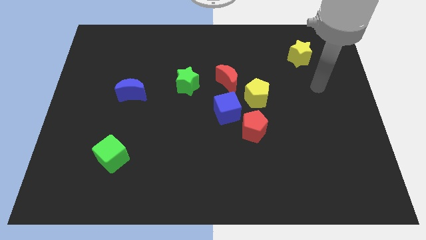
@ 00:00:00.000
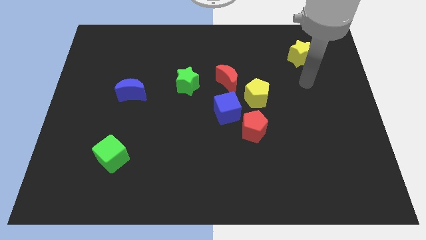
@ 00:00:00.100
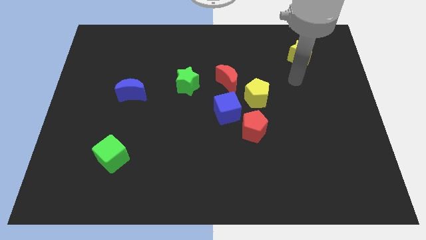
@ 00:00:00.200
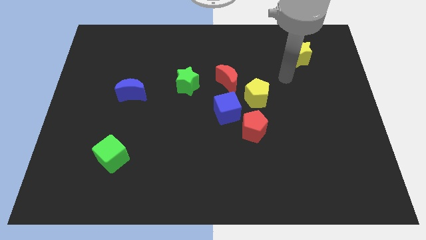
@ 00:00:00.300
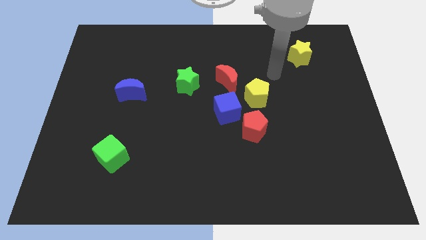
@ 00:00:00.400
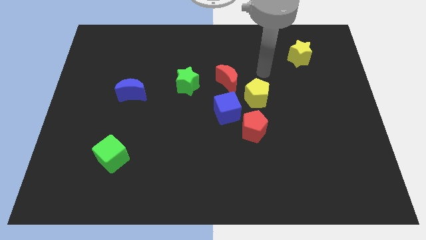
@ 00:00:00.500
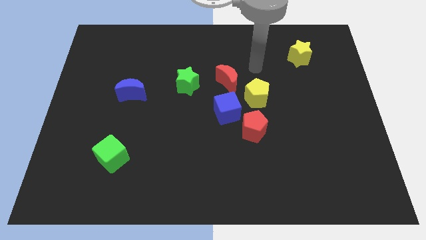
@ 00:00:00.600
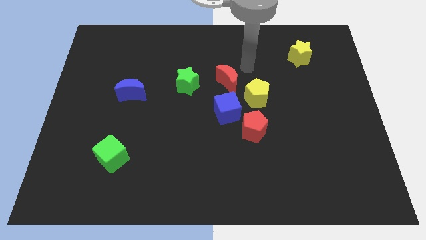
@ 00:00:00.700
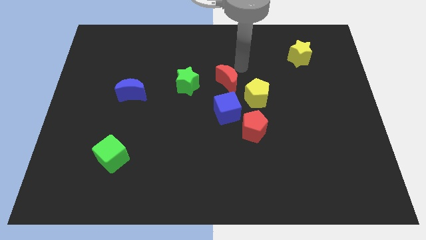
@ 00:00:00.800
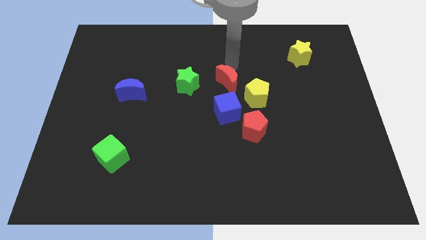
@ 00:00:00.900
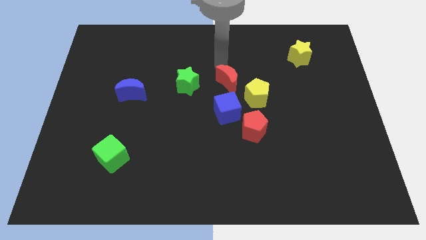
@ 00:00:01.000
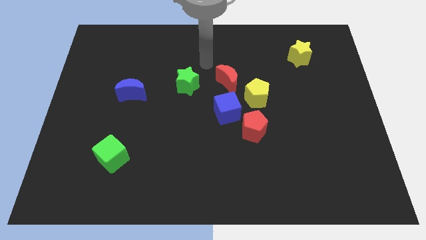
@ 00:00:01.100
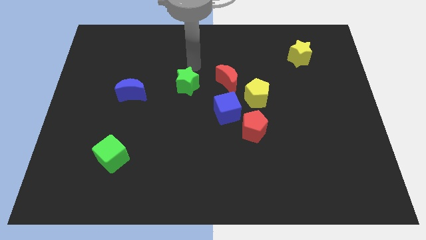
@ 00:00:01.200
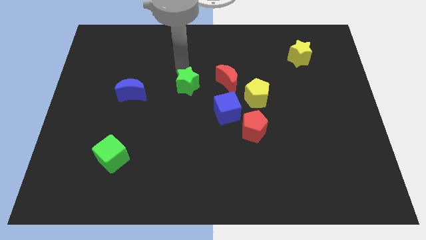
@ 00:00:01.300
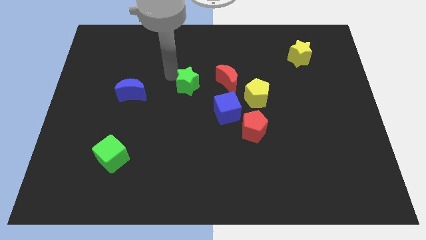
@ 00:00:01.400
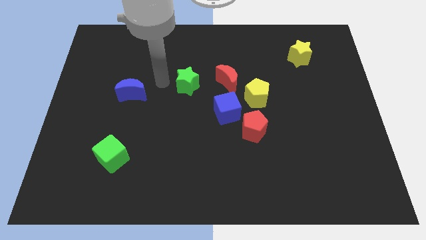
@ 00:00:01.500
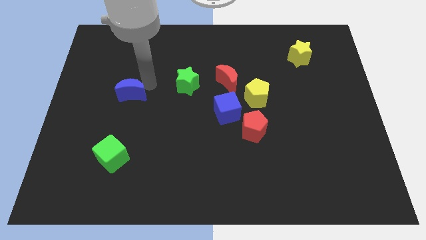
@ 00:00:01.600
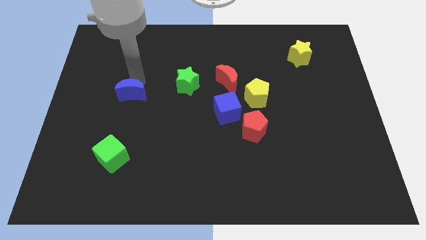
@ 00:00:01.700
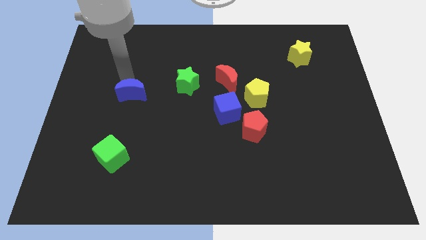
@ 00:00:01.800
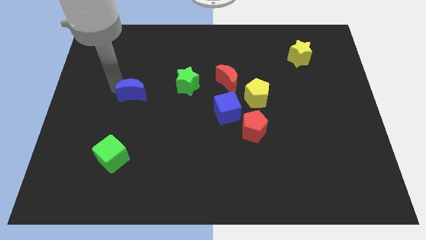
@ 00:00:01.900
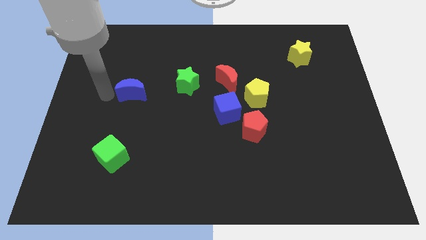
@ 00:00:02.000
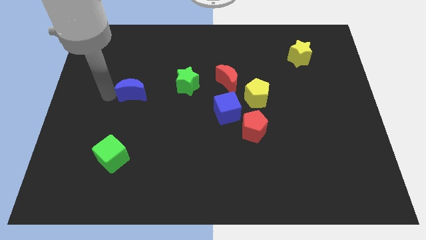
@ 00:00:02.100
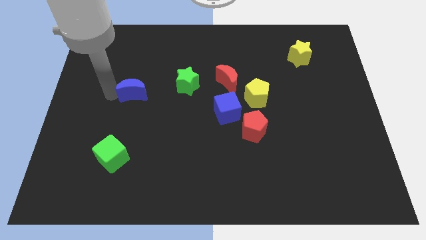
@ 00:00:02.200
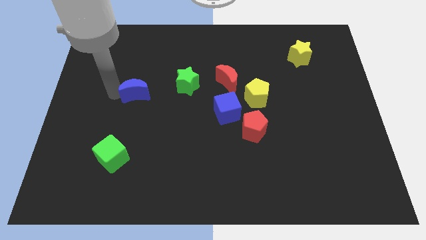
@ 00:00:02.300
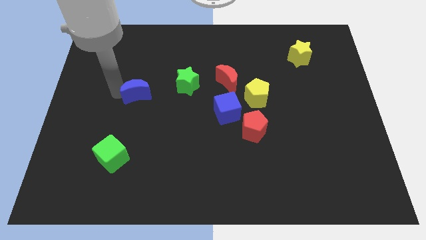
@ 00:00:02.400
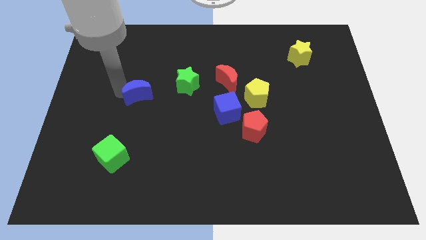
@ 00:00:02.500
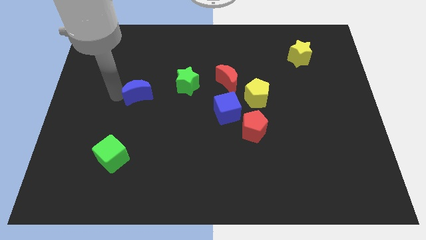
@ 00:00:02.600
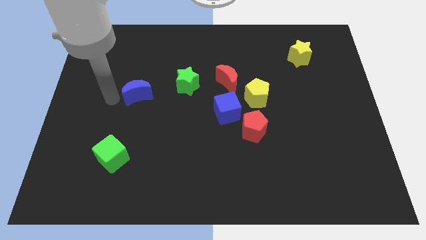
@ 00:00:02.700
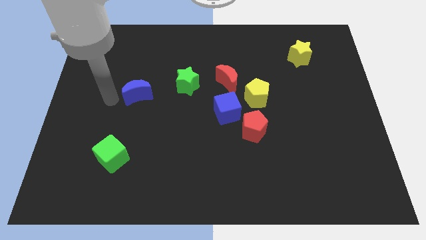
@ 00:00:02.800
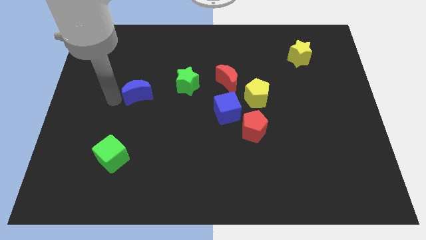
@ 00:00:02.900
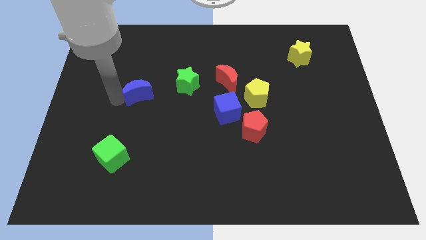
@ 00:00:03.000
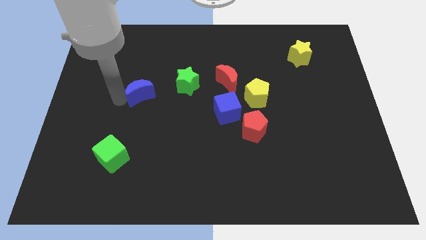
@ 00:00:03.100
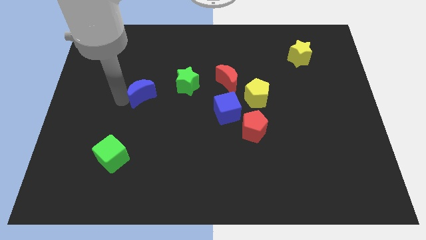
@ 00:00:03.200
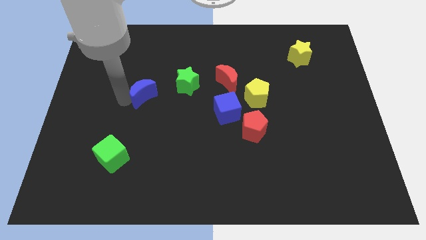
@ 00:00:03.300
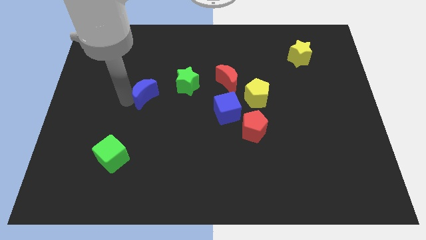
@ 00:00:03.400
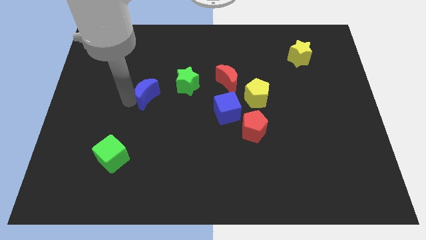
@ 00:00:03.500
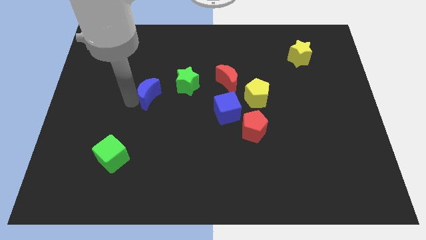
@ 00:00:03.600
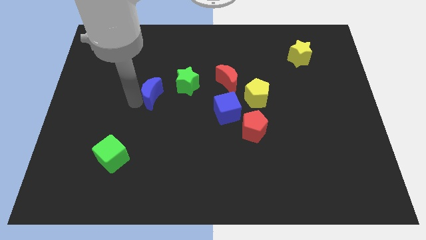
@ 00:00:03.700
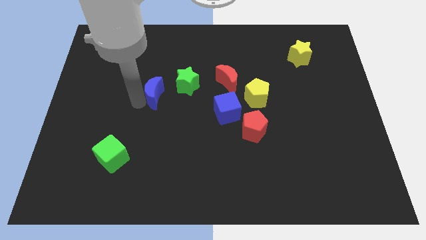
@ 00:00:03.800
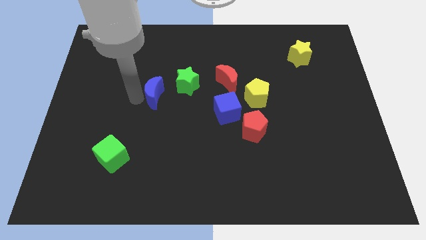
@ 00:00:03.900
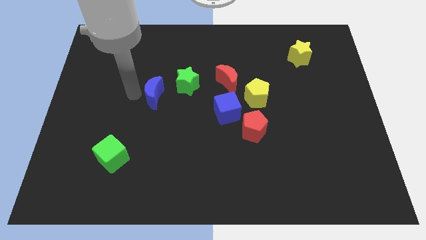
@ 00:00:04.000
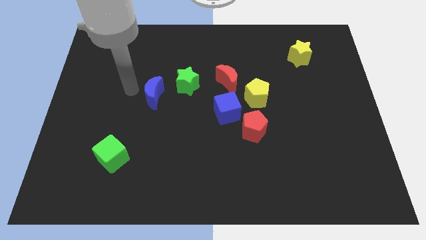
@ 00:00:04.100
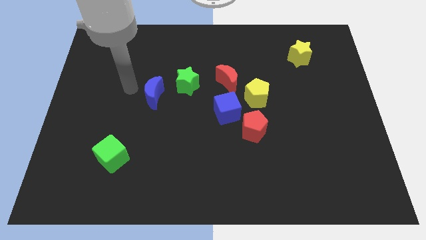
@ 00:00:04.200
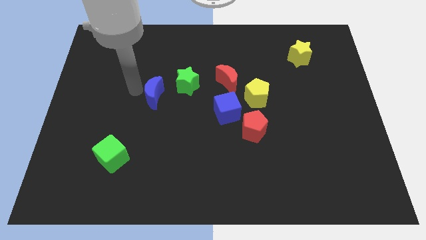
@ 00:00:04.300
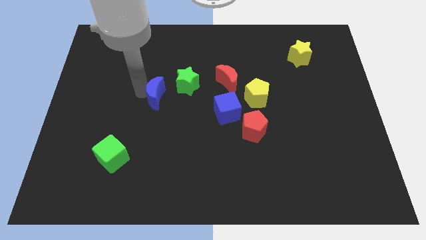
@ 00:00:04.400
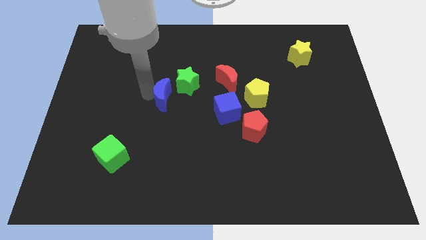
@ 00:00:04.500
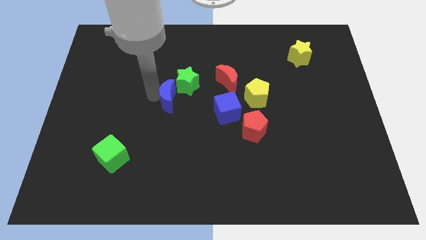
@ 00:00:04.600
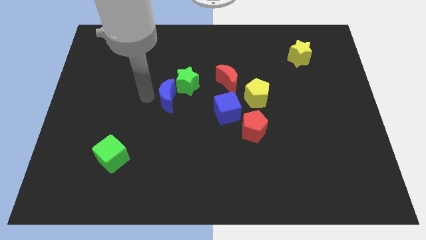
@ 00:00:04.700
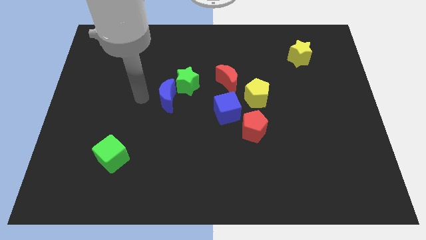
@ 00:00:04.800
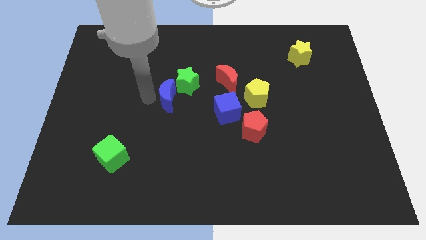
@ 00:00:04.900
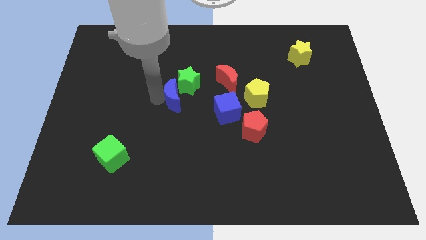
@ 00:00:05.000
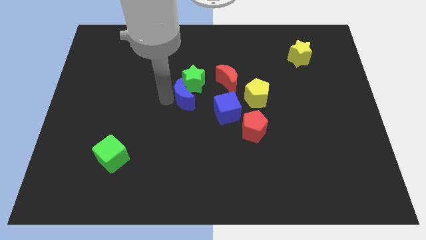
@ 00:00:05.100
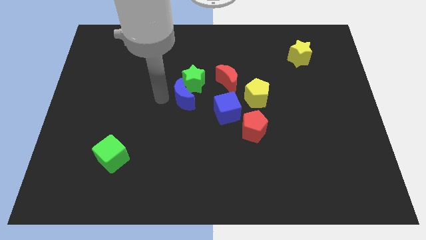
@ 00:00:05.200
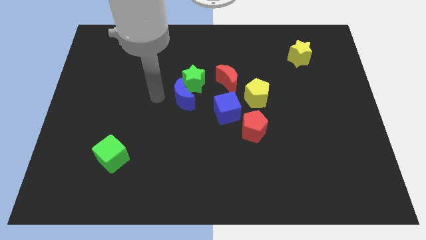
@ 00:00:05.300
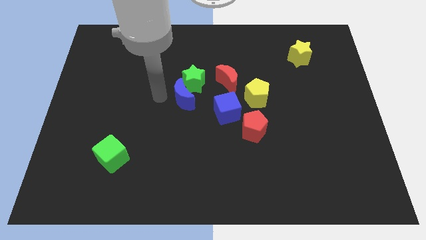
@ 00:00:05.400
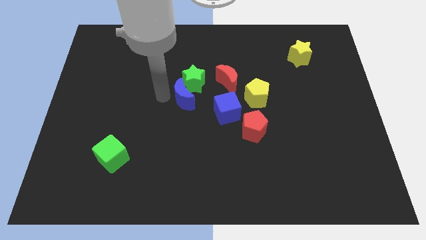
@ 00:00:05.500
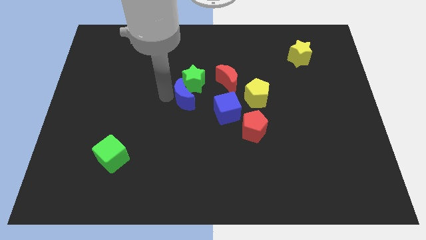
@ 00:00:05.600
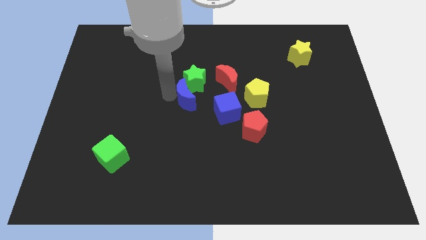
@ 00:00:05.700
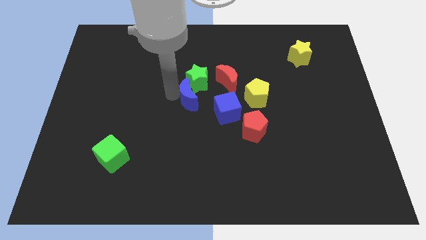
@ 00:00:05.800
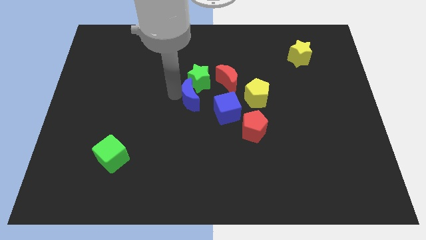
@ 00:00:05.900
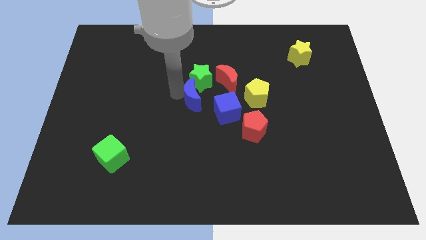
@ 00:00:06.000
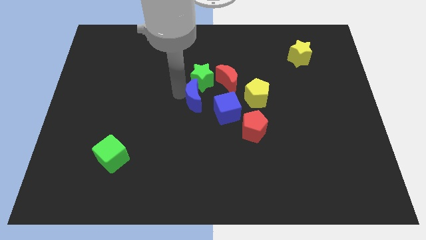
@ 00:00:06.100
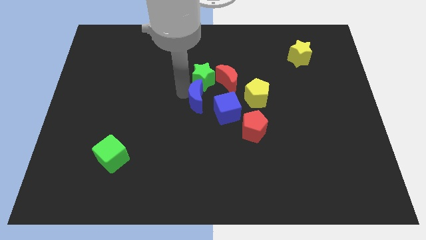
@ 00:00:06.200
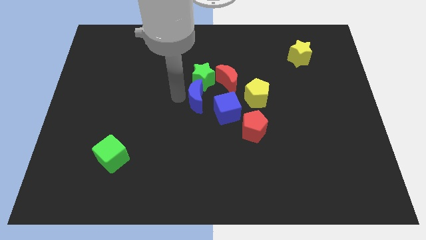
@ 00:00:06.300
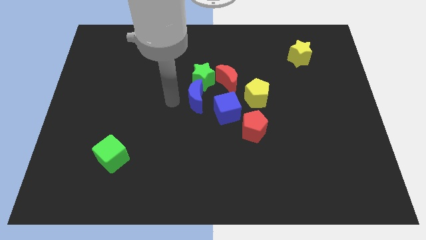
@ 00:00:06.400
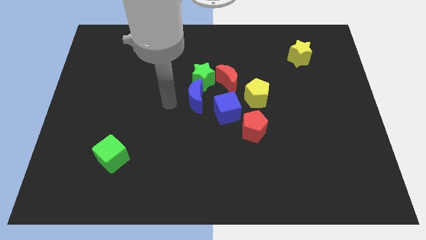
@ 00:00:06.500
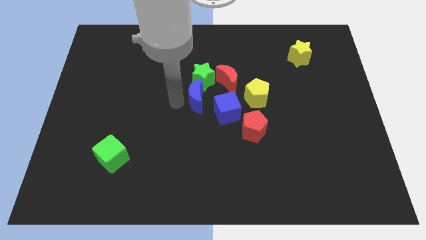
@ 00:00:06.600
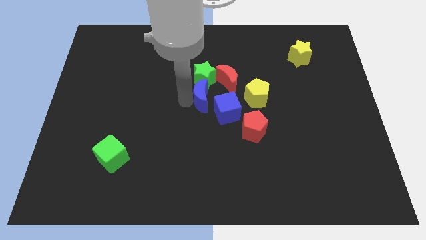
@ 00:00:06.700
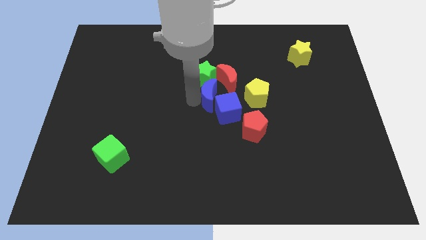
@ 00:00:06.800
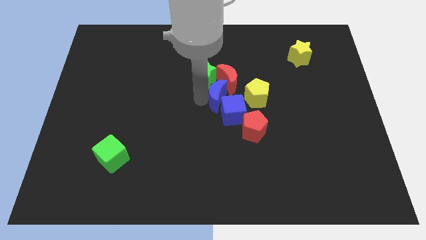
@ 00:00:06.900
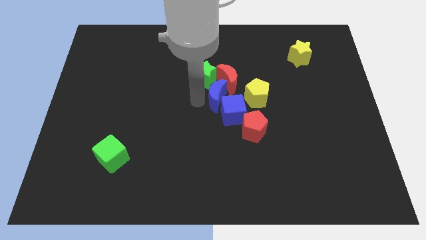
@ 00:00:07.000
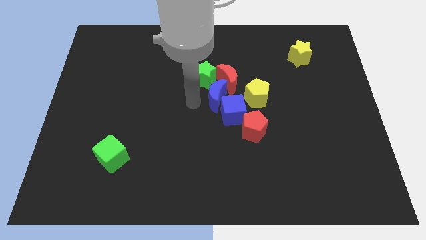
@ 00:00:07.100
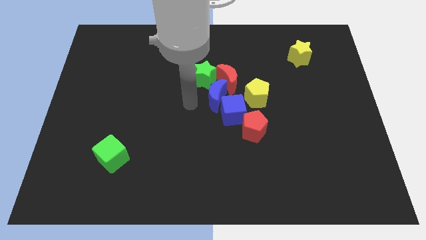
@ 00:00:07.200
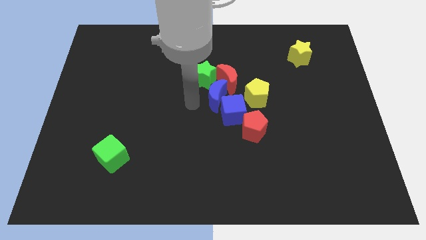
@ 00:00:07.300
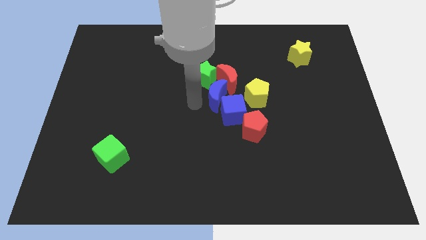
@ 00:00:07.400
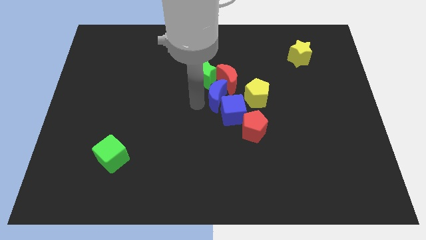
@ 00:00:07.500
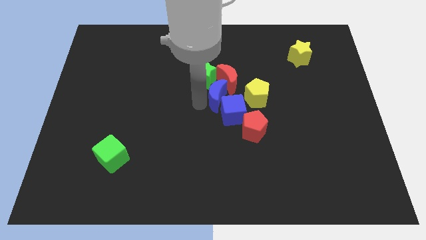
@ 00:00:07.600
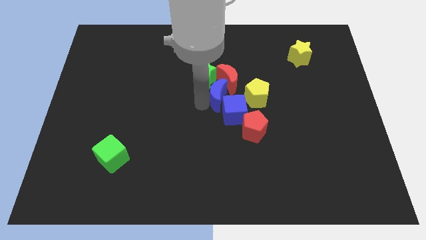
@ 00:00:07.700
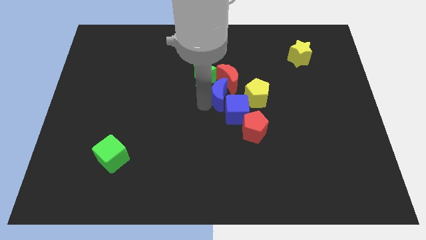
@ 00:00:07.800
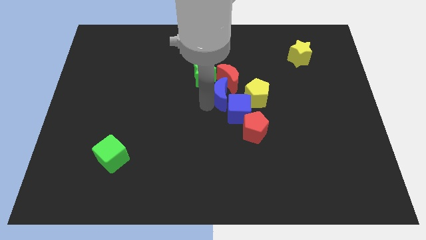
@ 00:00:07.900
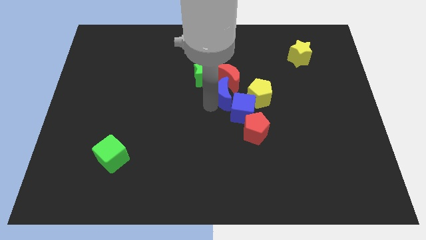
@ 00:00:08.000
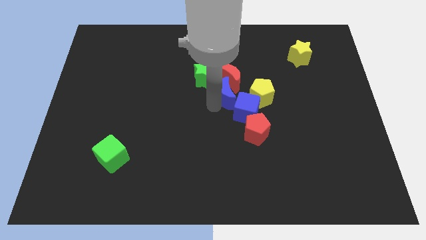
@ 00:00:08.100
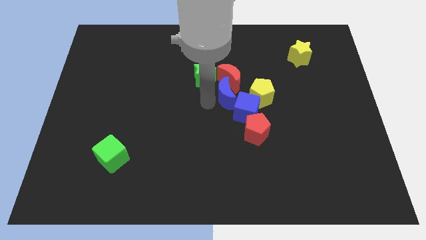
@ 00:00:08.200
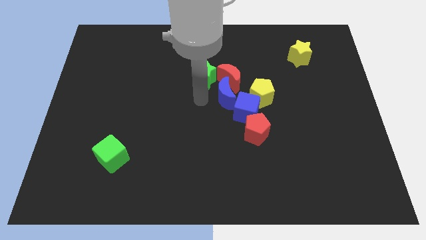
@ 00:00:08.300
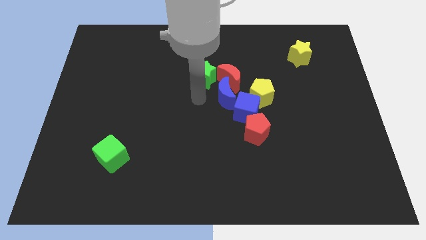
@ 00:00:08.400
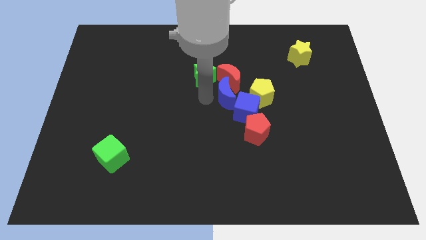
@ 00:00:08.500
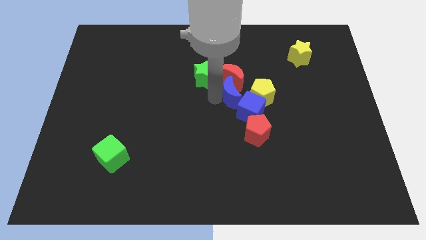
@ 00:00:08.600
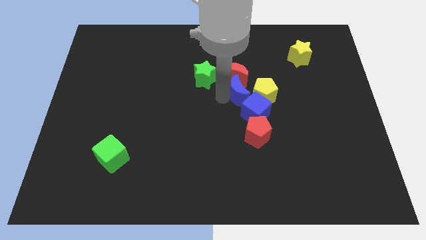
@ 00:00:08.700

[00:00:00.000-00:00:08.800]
slide the blue moon close to the yellow pentagon
